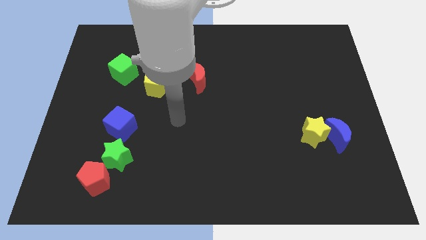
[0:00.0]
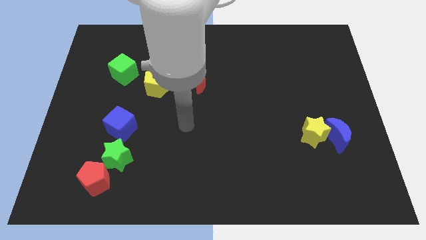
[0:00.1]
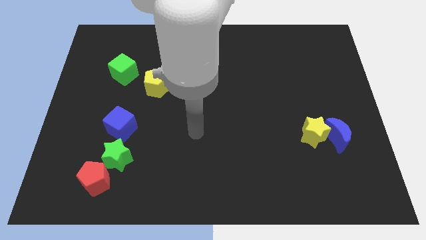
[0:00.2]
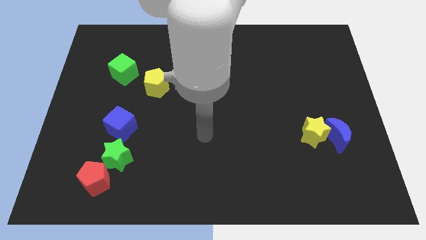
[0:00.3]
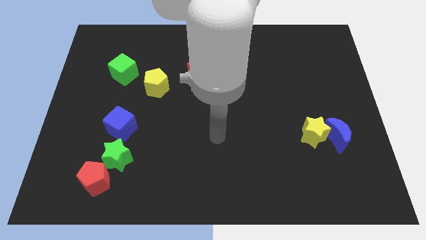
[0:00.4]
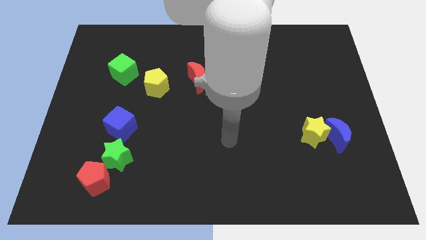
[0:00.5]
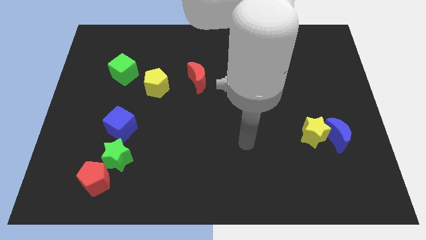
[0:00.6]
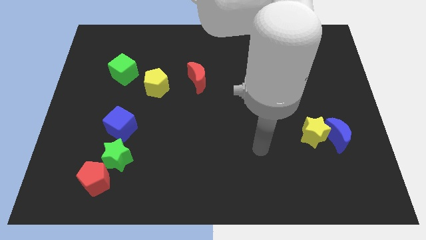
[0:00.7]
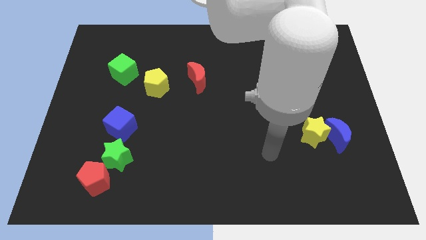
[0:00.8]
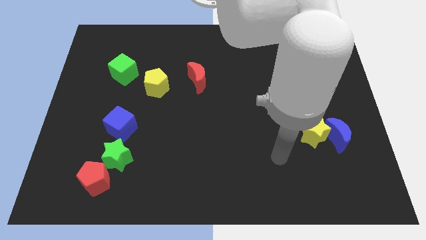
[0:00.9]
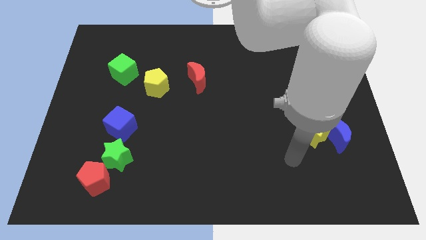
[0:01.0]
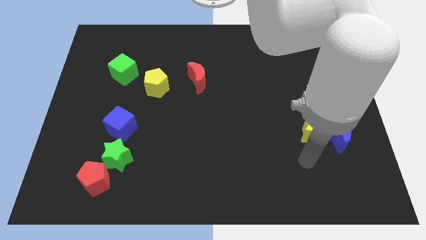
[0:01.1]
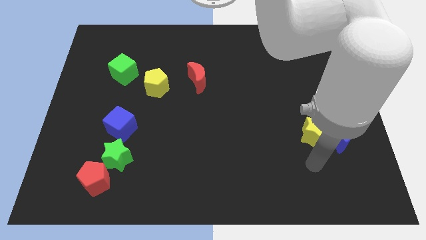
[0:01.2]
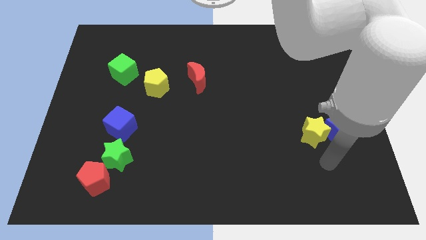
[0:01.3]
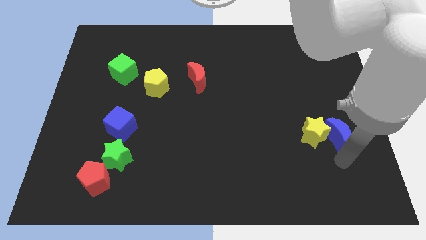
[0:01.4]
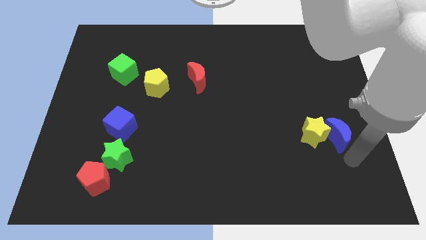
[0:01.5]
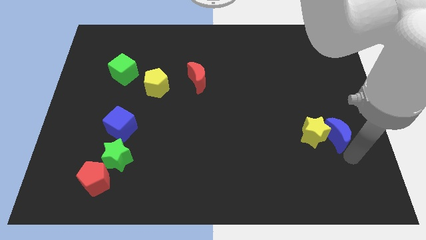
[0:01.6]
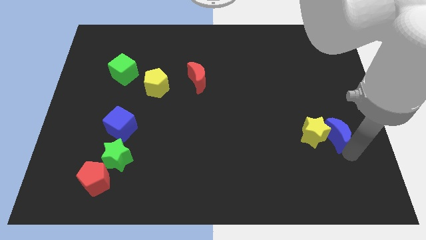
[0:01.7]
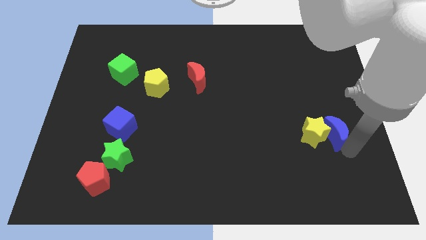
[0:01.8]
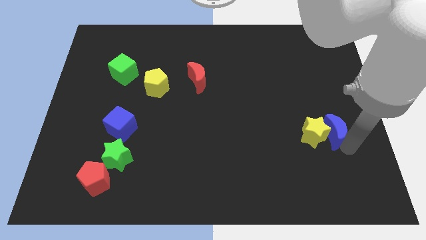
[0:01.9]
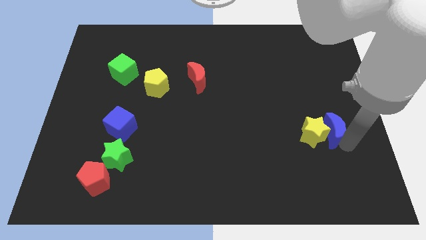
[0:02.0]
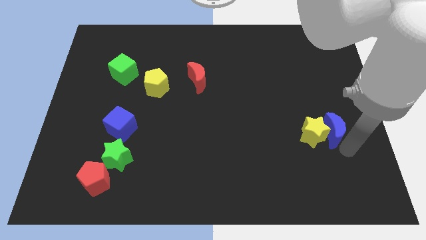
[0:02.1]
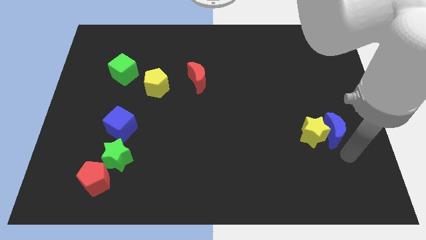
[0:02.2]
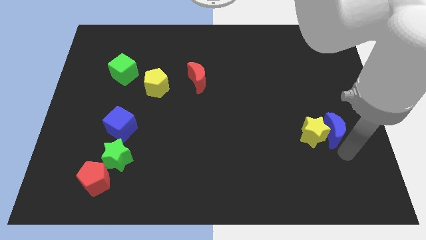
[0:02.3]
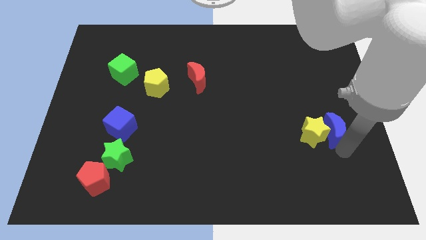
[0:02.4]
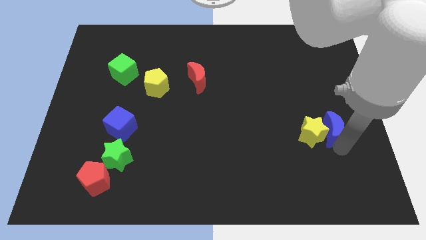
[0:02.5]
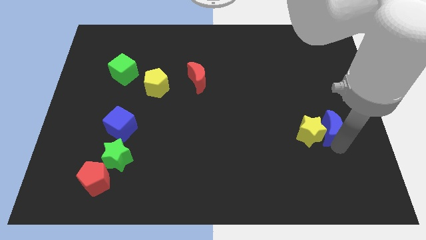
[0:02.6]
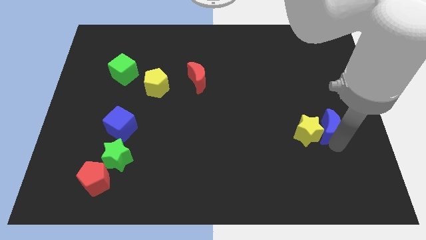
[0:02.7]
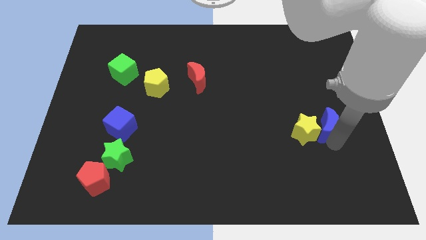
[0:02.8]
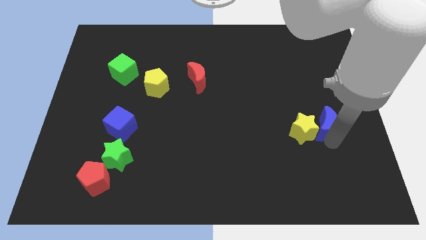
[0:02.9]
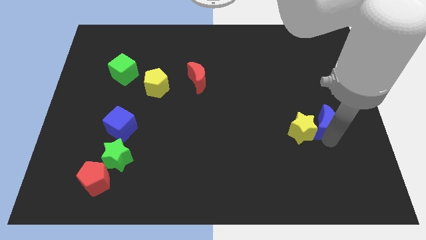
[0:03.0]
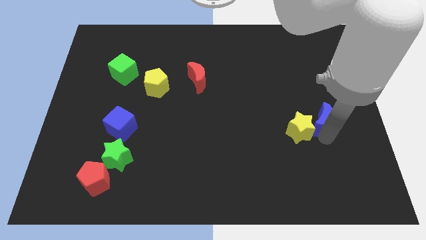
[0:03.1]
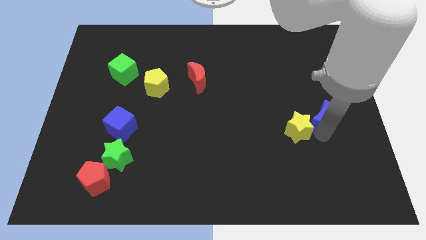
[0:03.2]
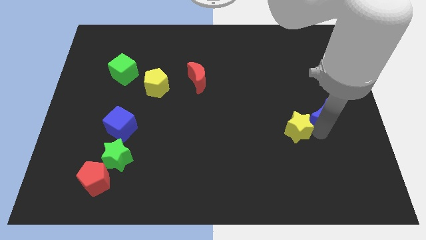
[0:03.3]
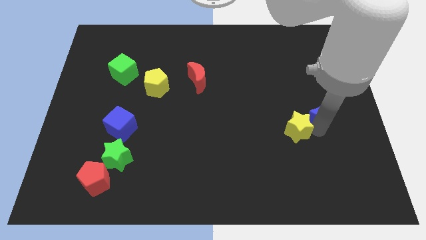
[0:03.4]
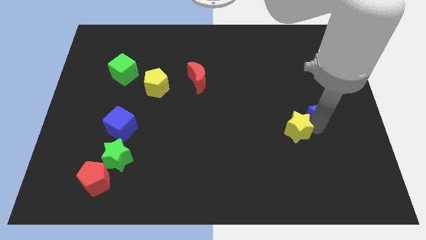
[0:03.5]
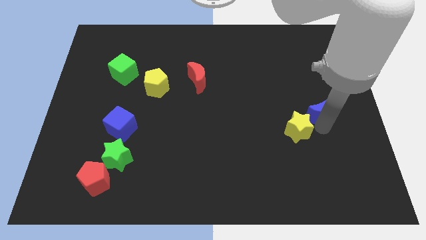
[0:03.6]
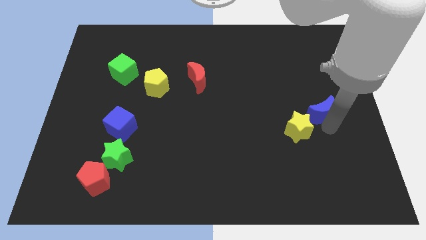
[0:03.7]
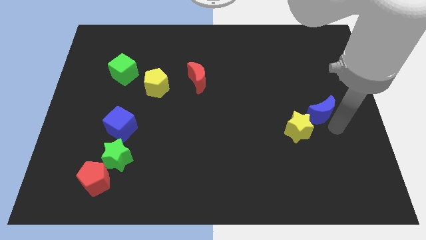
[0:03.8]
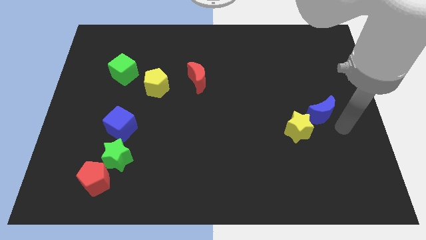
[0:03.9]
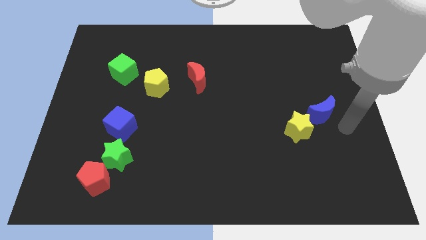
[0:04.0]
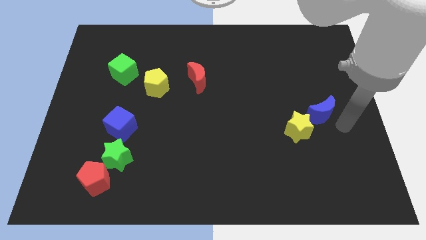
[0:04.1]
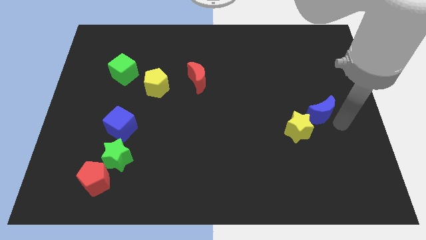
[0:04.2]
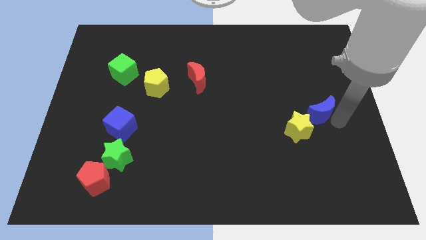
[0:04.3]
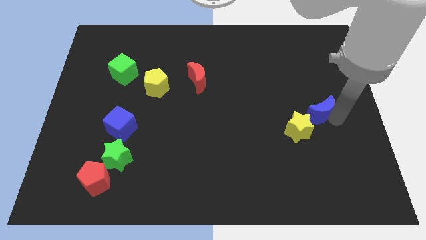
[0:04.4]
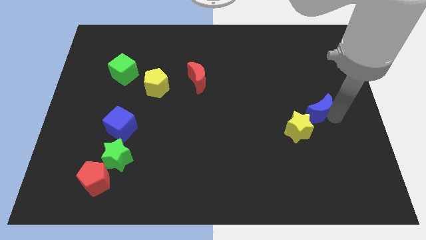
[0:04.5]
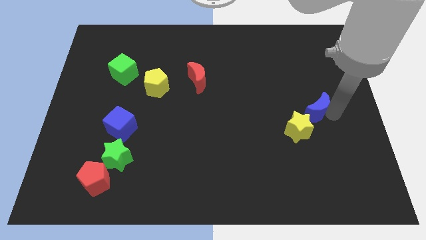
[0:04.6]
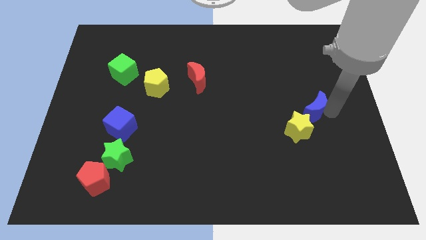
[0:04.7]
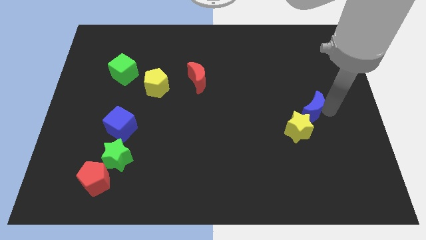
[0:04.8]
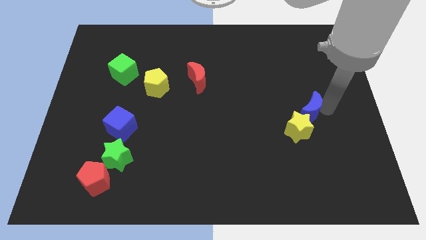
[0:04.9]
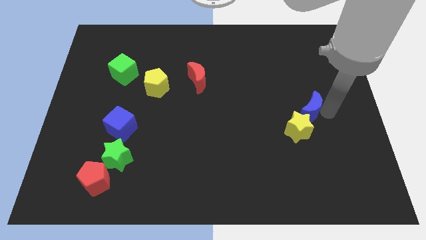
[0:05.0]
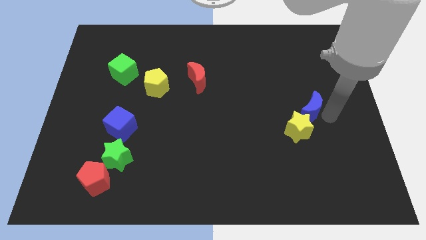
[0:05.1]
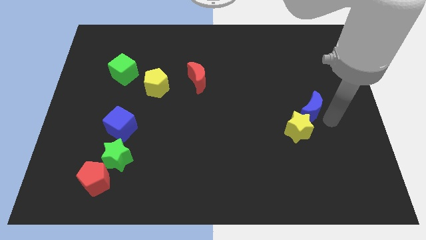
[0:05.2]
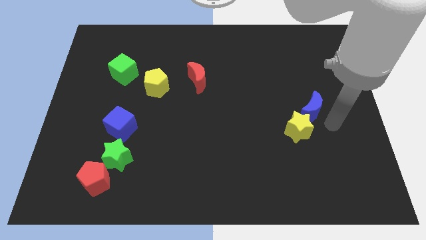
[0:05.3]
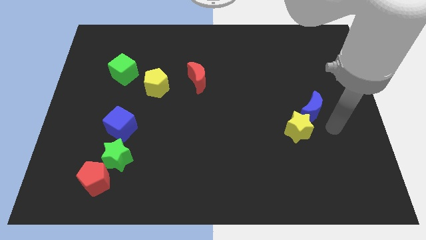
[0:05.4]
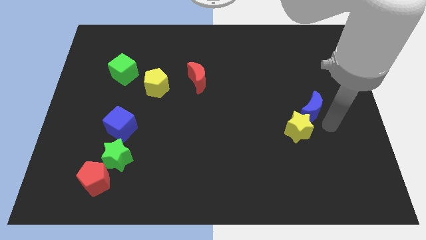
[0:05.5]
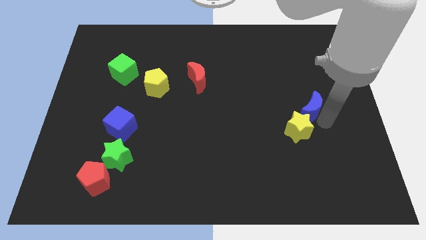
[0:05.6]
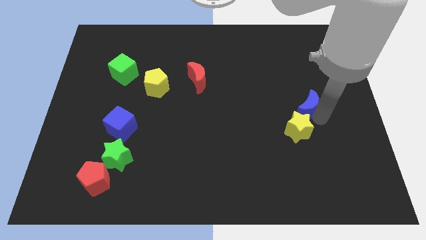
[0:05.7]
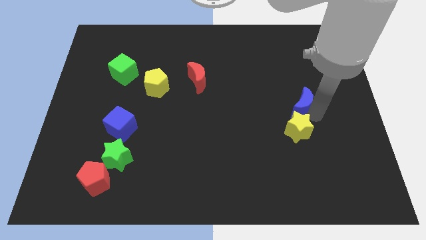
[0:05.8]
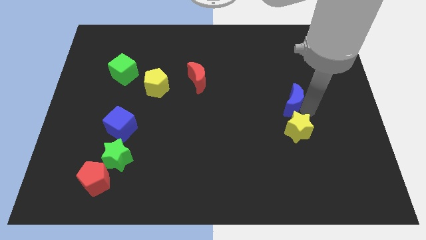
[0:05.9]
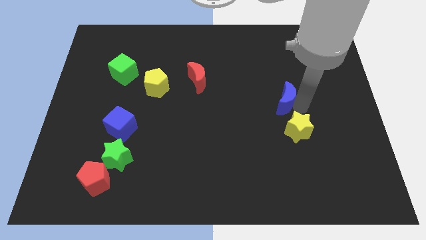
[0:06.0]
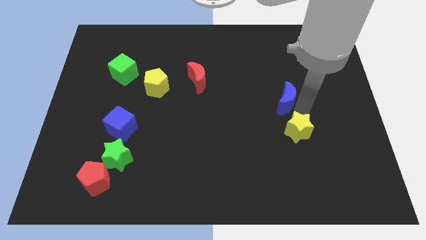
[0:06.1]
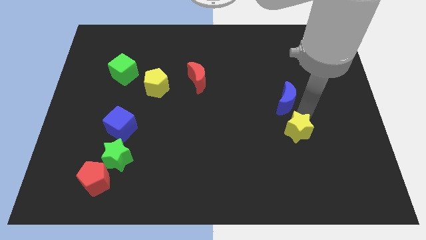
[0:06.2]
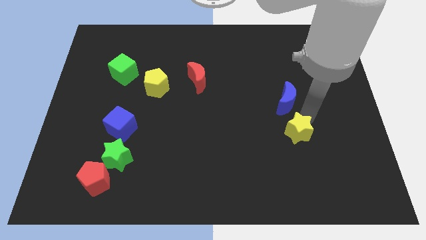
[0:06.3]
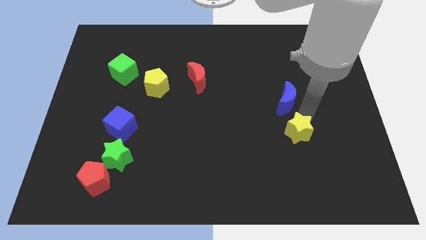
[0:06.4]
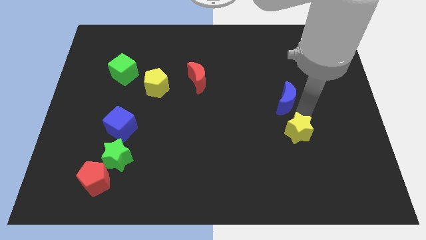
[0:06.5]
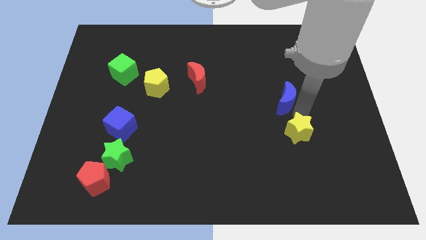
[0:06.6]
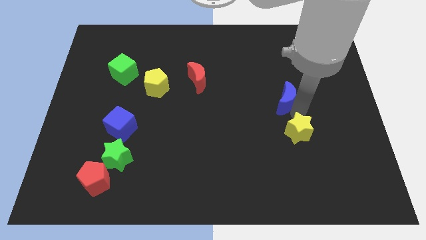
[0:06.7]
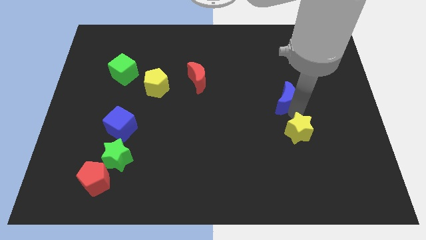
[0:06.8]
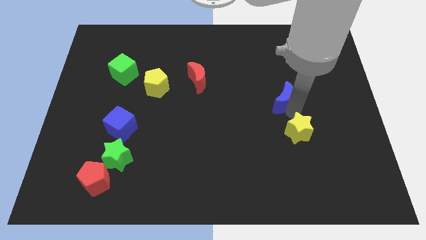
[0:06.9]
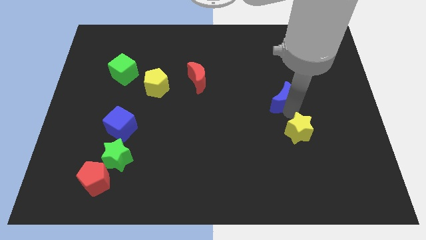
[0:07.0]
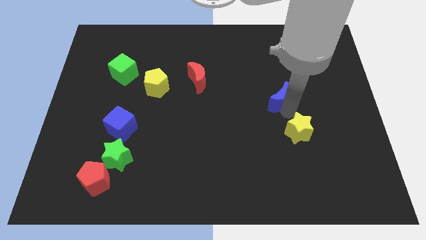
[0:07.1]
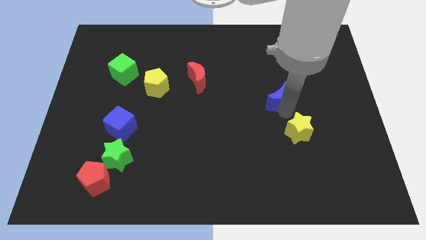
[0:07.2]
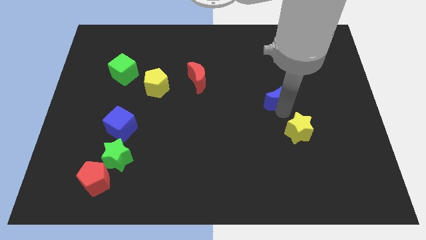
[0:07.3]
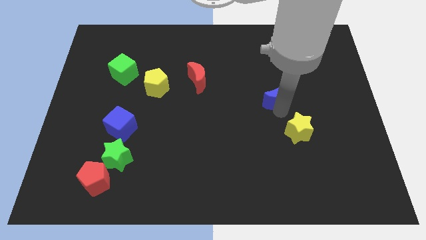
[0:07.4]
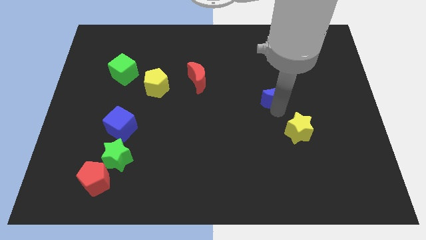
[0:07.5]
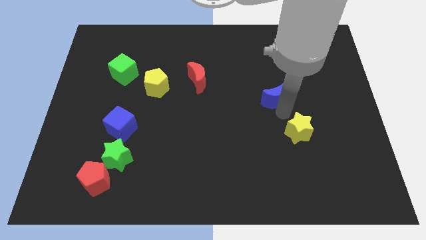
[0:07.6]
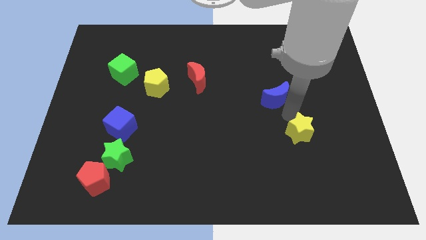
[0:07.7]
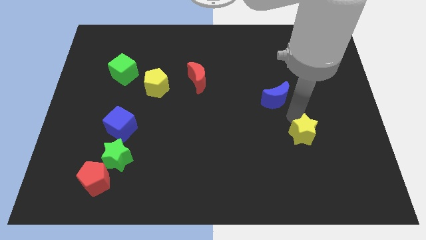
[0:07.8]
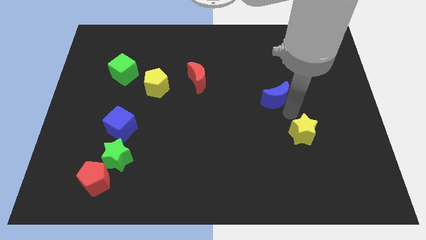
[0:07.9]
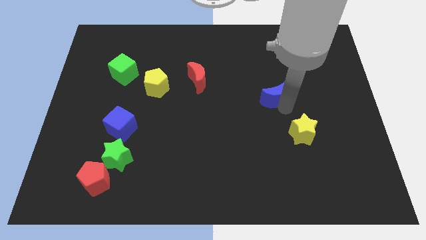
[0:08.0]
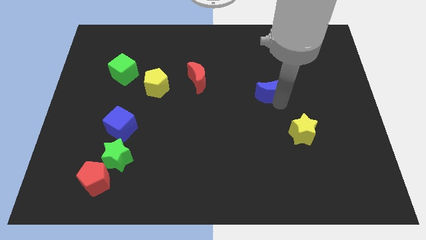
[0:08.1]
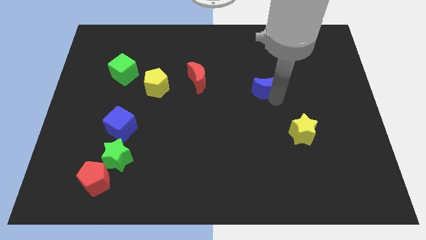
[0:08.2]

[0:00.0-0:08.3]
slide the blue moon up and to the left diagonally
